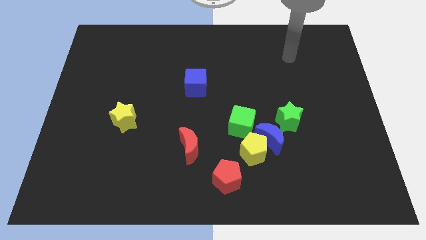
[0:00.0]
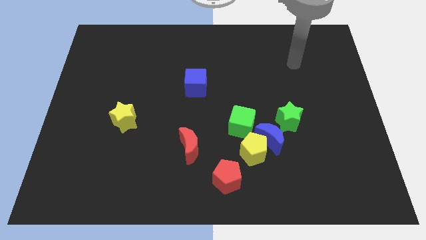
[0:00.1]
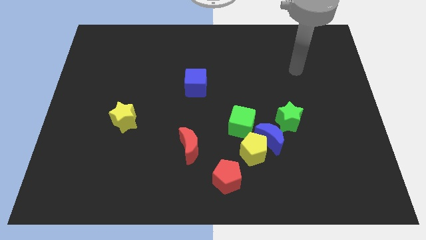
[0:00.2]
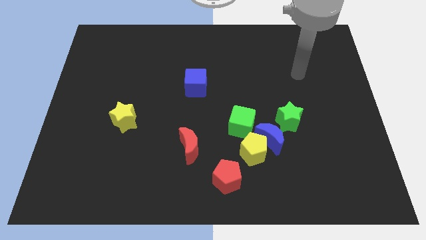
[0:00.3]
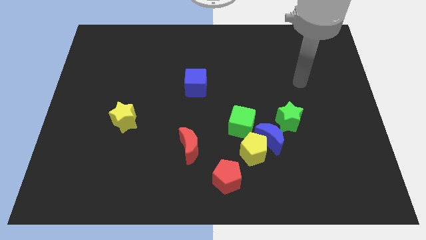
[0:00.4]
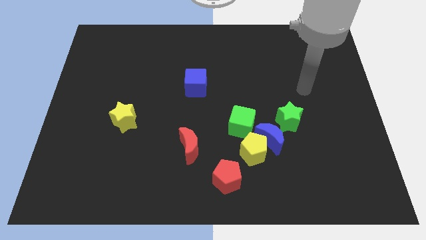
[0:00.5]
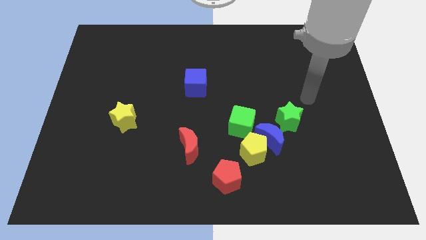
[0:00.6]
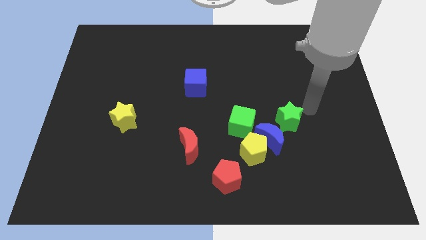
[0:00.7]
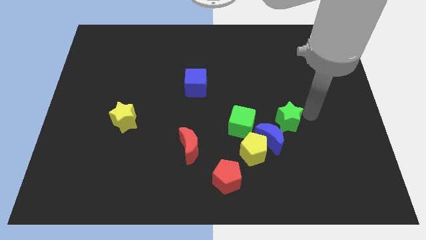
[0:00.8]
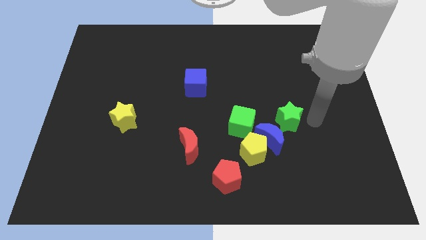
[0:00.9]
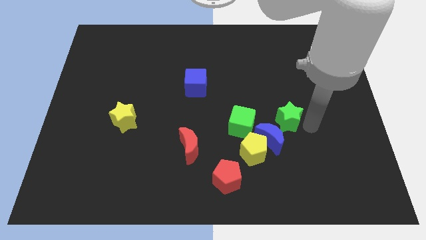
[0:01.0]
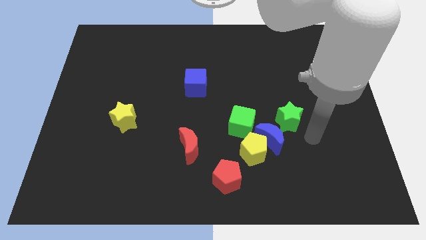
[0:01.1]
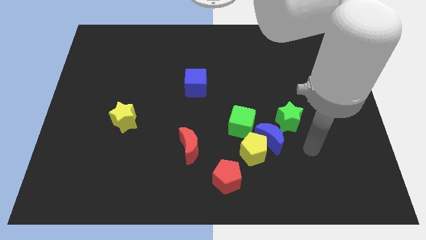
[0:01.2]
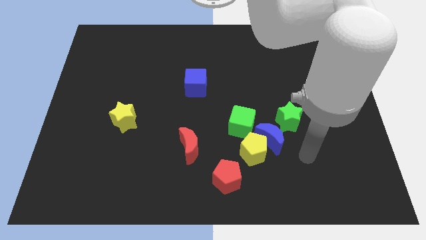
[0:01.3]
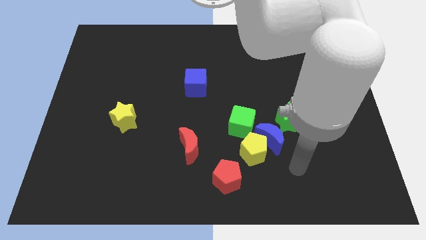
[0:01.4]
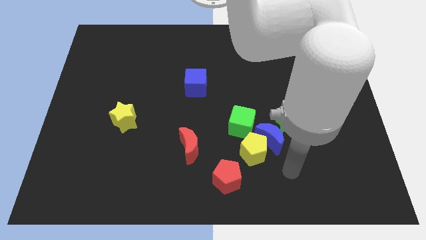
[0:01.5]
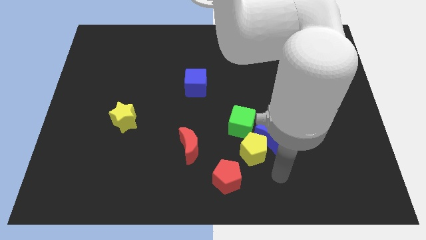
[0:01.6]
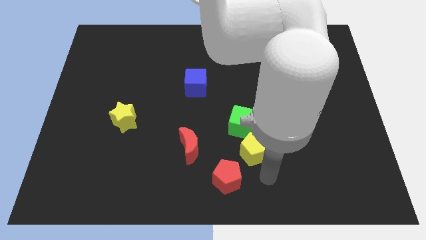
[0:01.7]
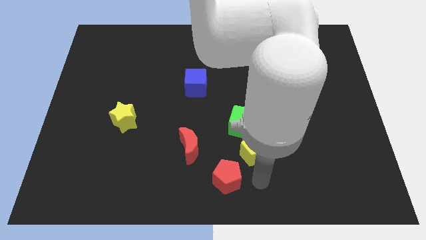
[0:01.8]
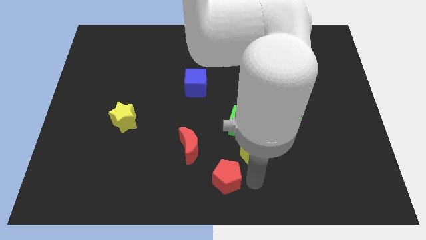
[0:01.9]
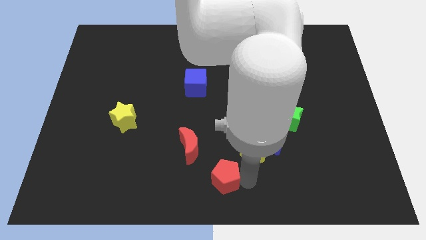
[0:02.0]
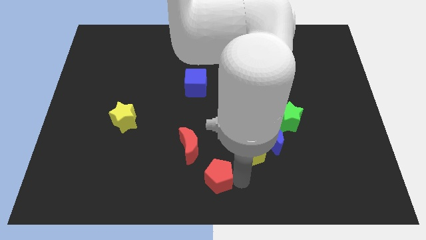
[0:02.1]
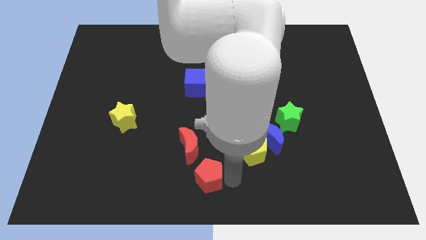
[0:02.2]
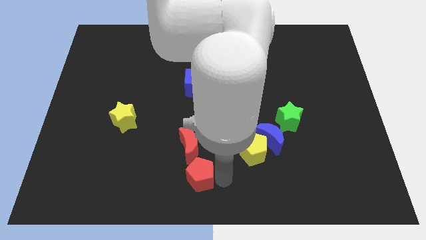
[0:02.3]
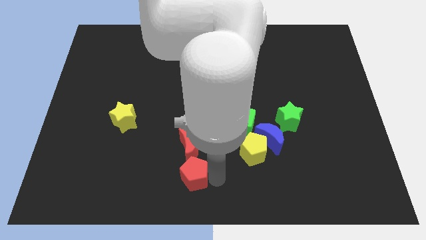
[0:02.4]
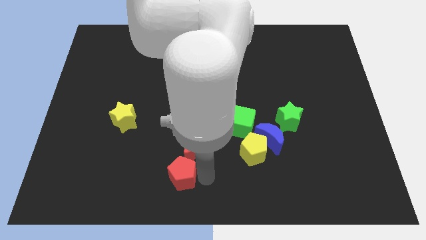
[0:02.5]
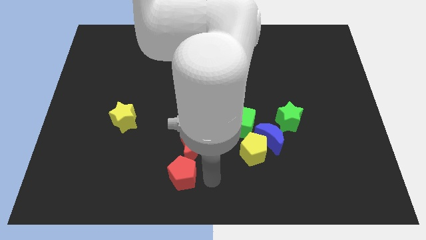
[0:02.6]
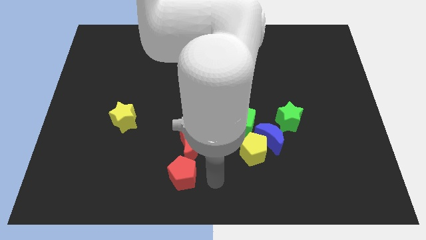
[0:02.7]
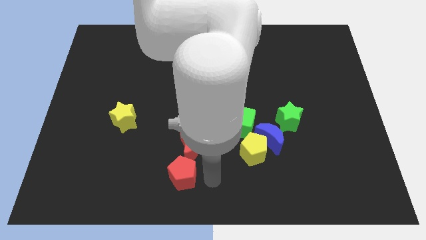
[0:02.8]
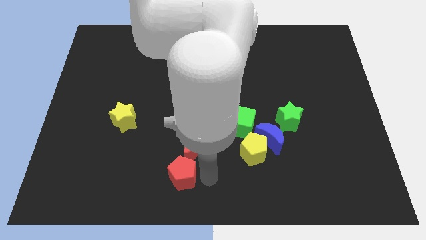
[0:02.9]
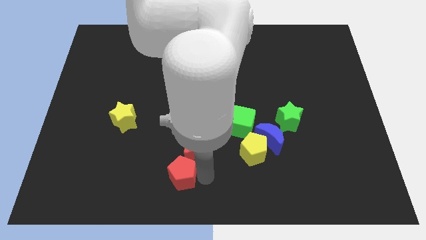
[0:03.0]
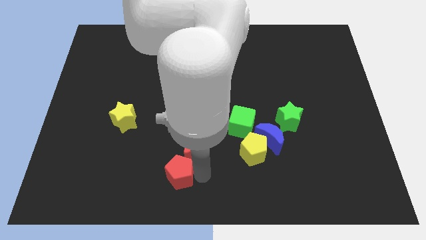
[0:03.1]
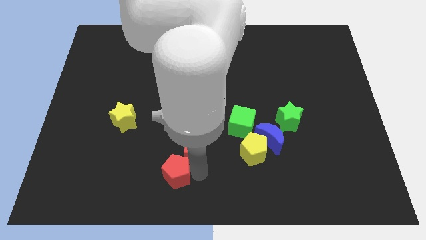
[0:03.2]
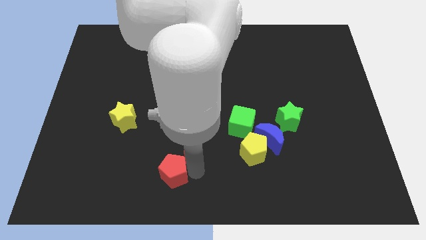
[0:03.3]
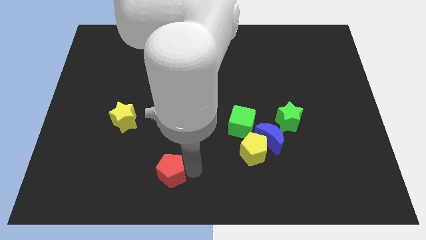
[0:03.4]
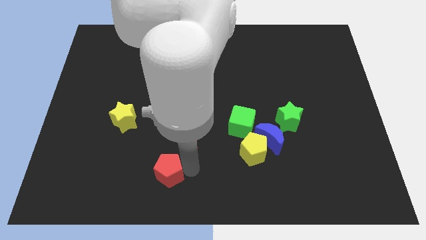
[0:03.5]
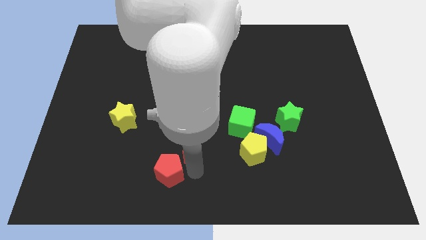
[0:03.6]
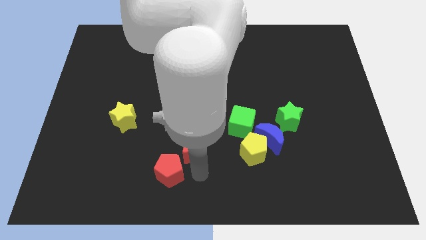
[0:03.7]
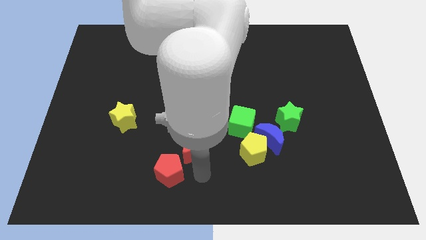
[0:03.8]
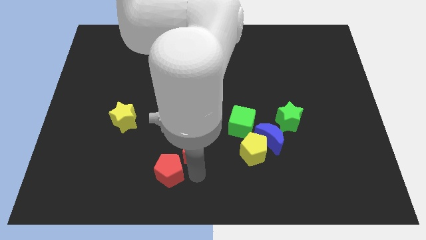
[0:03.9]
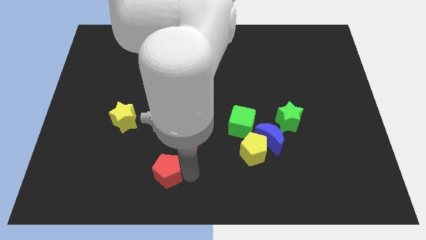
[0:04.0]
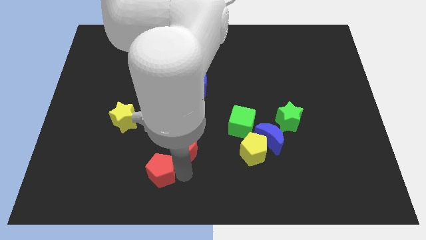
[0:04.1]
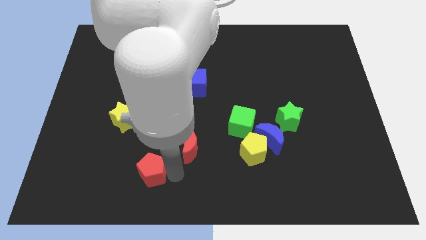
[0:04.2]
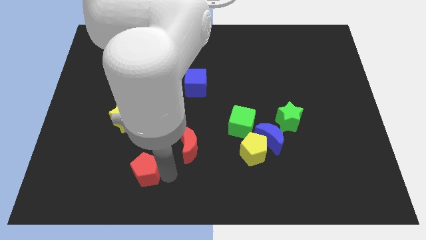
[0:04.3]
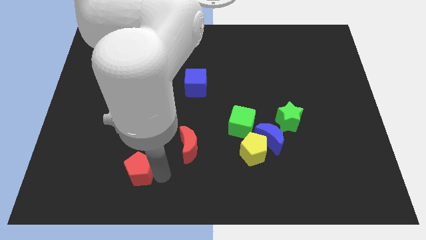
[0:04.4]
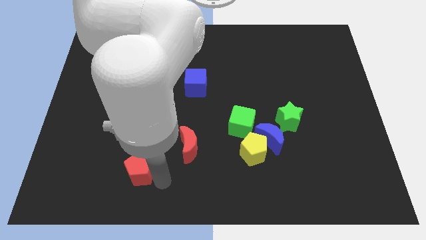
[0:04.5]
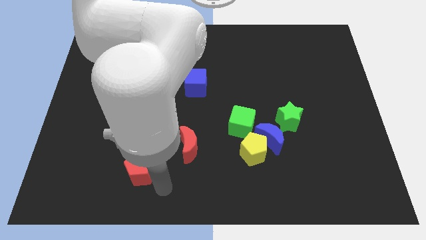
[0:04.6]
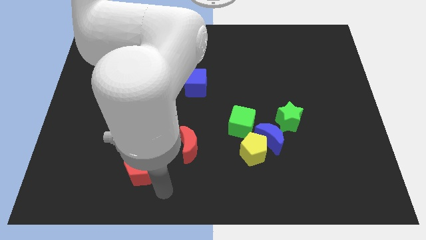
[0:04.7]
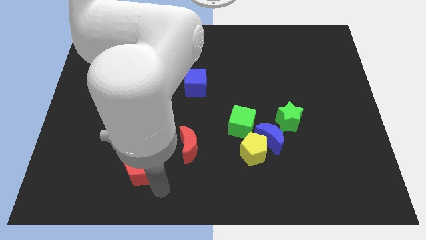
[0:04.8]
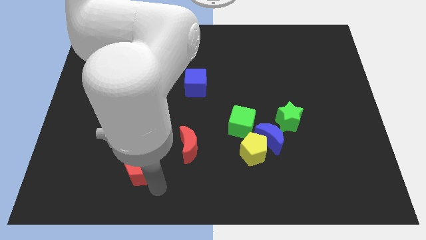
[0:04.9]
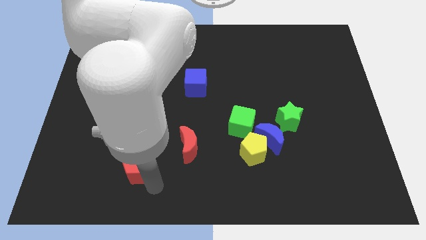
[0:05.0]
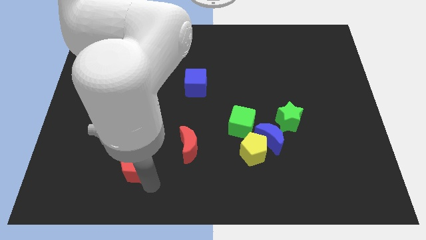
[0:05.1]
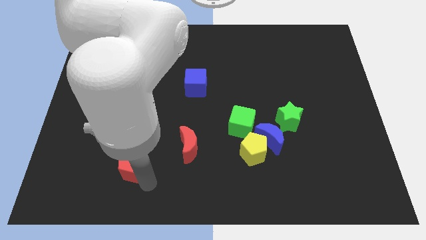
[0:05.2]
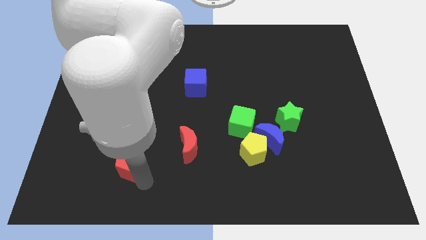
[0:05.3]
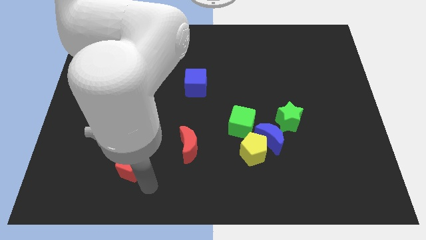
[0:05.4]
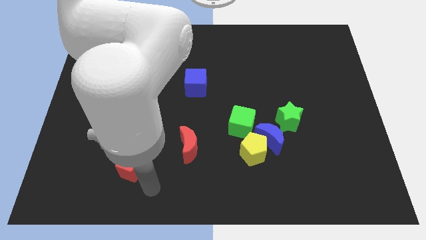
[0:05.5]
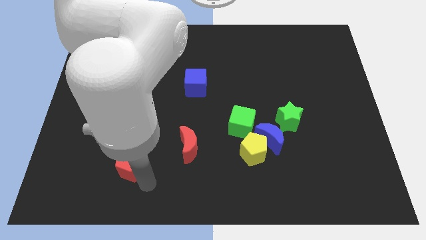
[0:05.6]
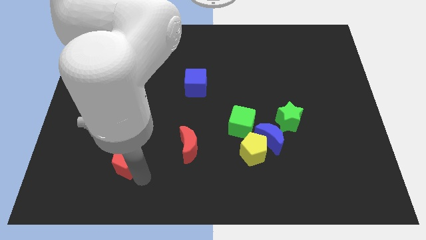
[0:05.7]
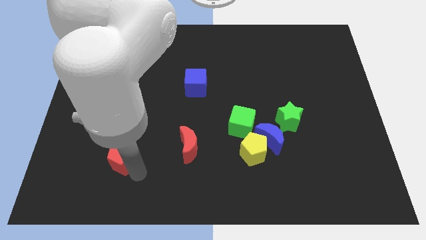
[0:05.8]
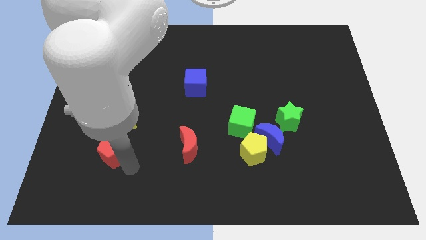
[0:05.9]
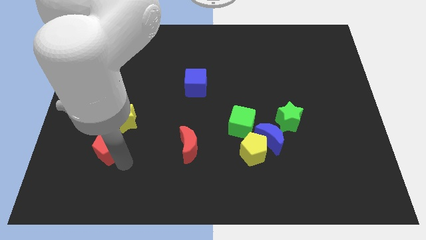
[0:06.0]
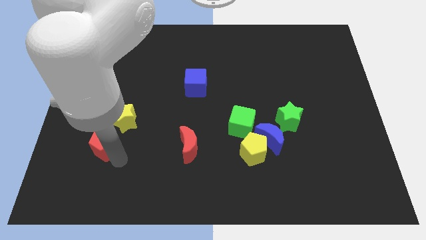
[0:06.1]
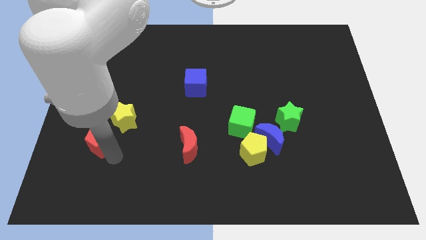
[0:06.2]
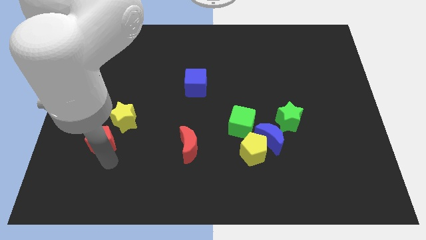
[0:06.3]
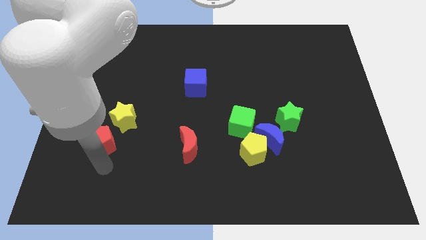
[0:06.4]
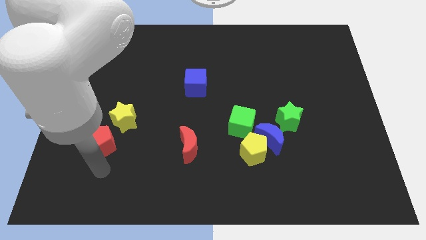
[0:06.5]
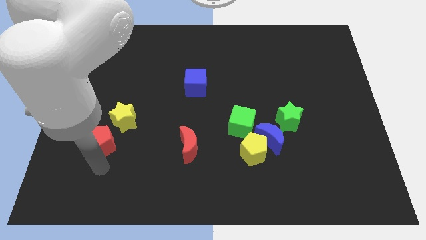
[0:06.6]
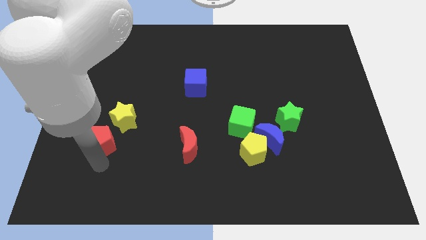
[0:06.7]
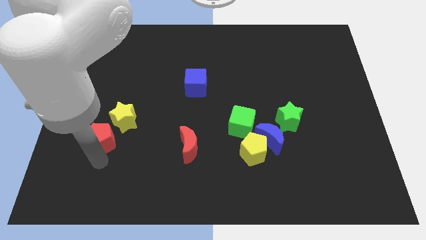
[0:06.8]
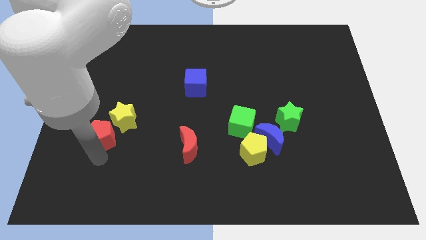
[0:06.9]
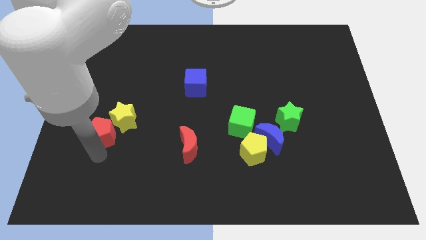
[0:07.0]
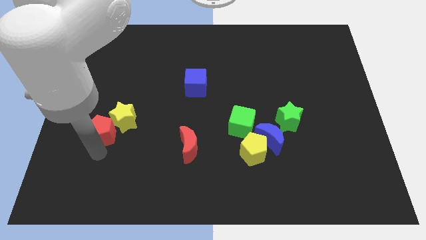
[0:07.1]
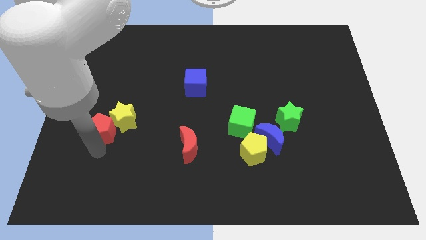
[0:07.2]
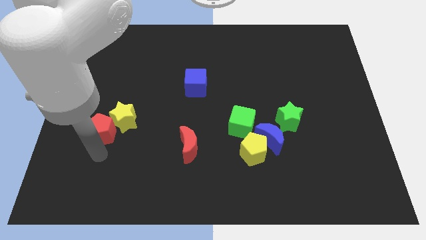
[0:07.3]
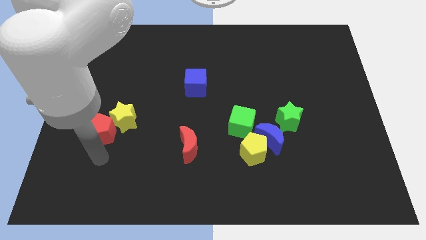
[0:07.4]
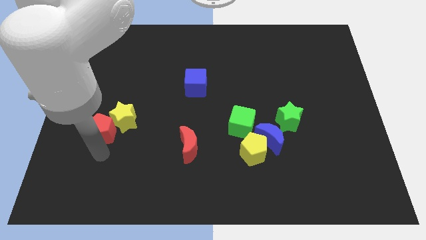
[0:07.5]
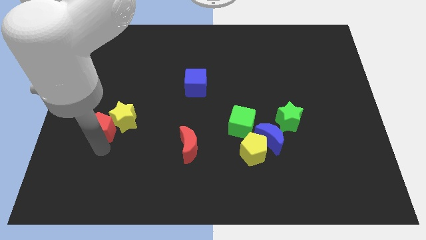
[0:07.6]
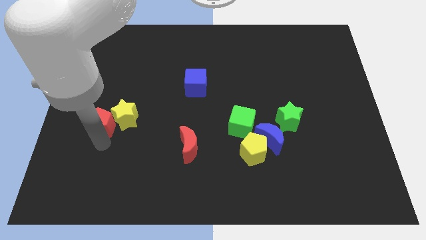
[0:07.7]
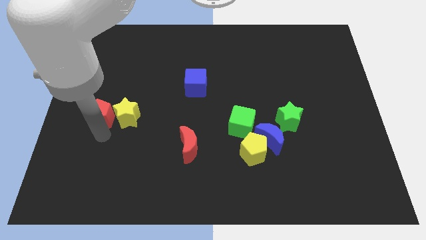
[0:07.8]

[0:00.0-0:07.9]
push the red pentagon diagonally up and to the left of the yellow star
